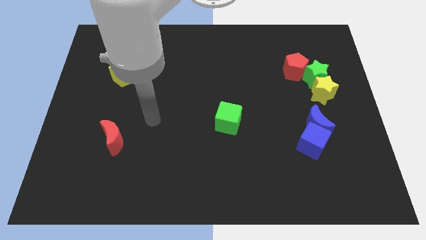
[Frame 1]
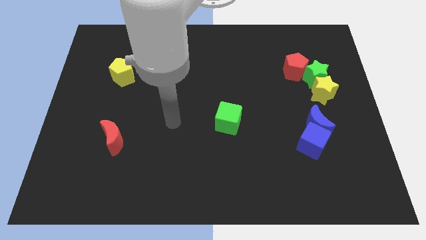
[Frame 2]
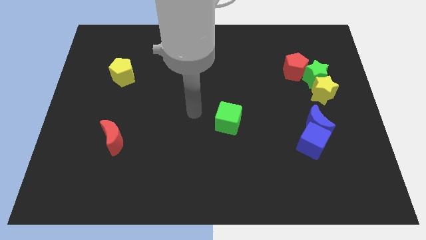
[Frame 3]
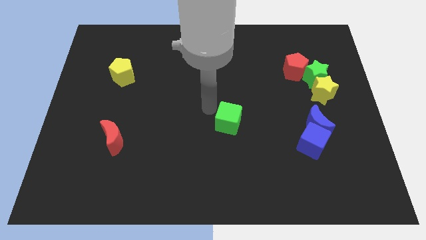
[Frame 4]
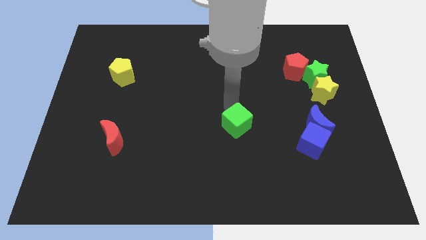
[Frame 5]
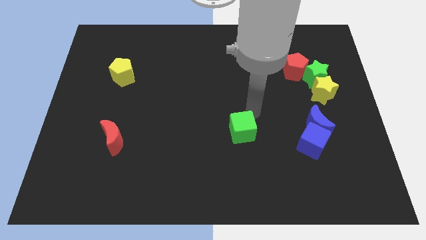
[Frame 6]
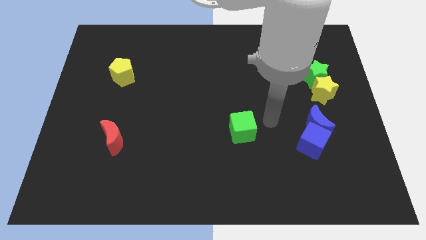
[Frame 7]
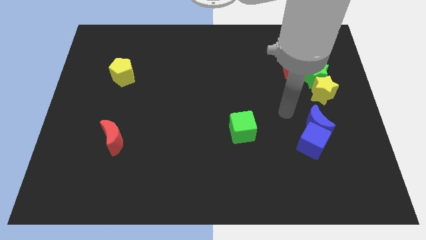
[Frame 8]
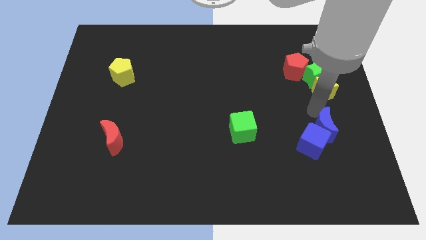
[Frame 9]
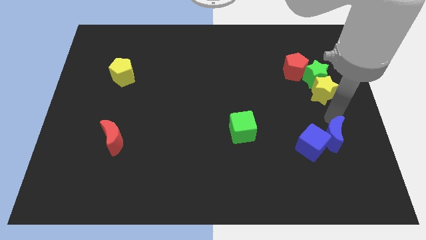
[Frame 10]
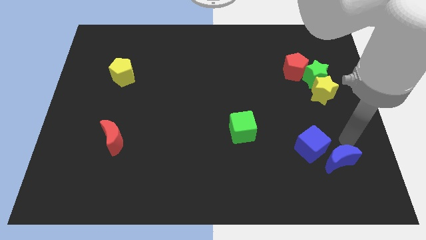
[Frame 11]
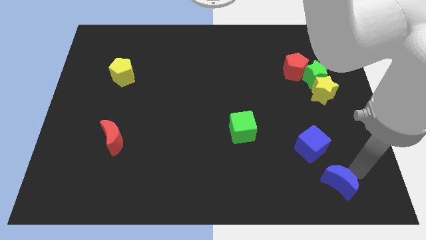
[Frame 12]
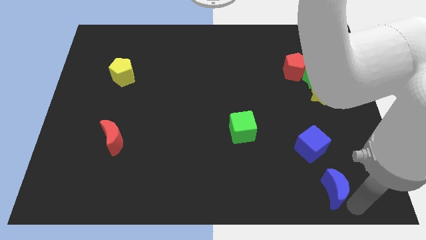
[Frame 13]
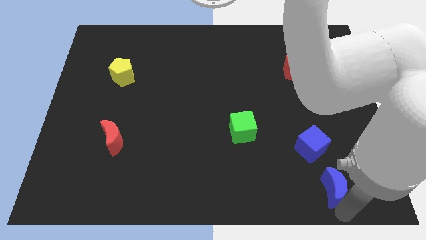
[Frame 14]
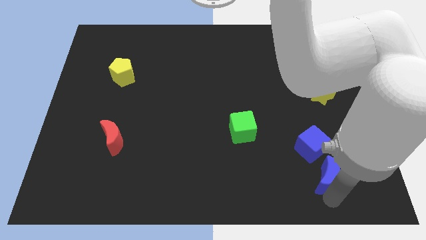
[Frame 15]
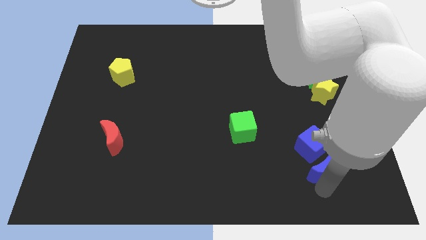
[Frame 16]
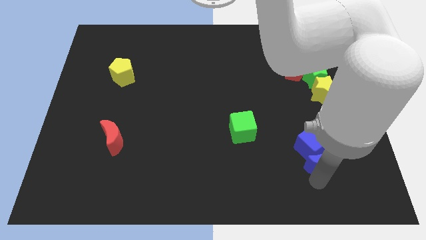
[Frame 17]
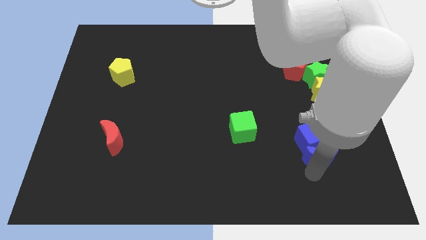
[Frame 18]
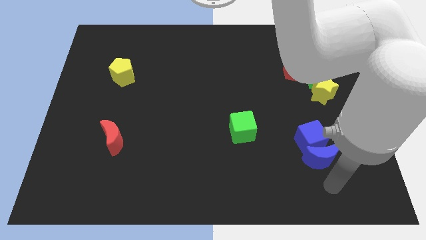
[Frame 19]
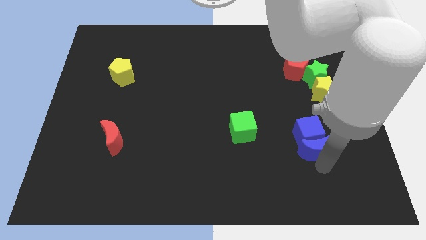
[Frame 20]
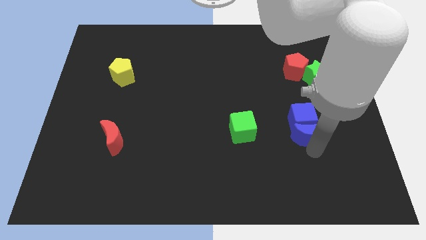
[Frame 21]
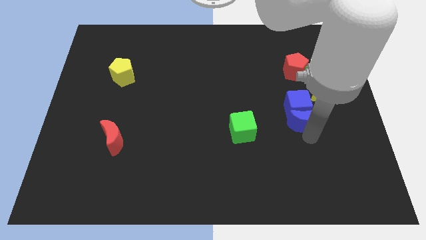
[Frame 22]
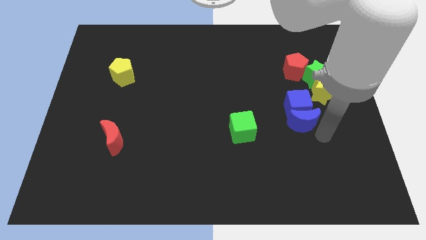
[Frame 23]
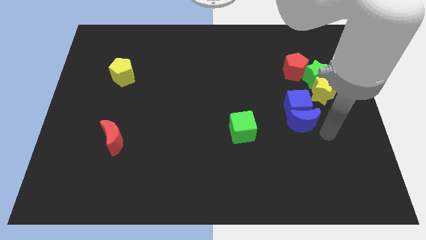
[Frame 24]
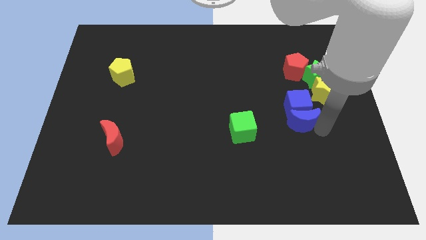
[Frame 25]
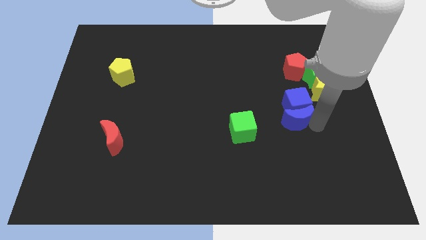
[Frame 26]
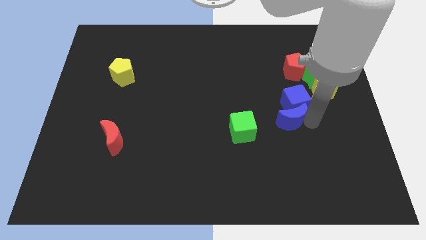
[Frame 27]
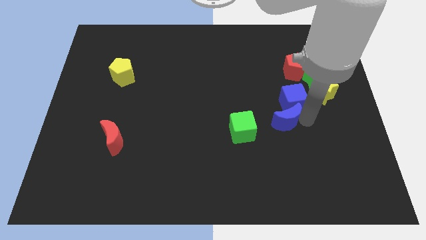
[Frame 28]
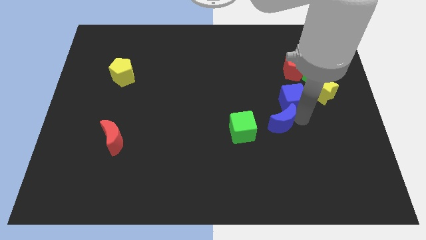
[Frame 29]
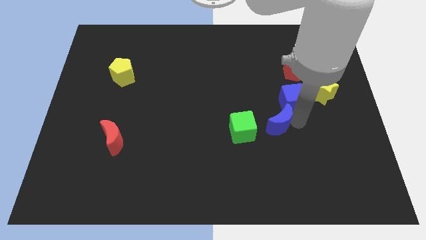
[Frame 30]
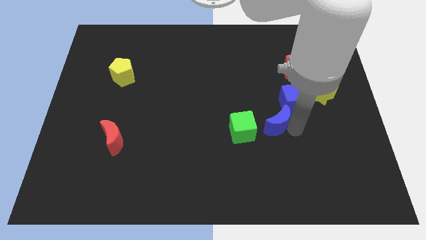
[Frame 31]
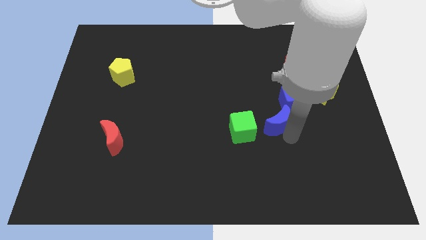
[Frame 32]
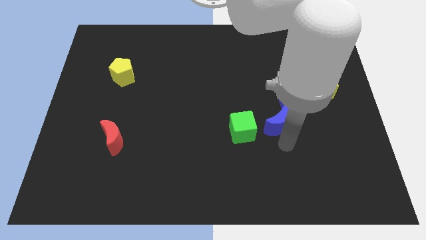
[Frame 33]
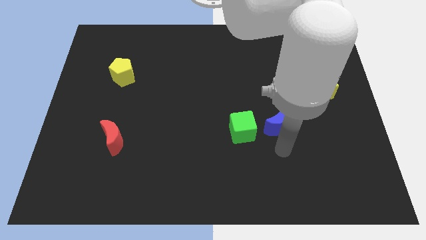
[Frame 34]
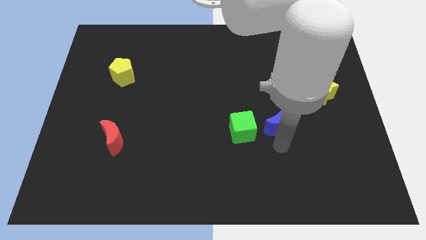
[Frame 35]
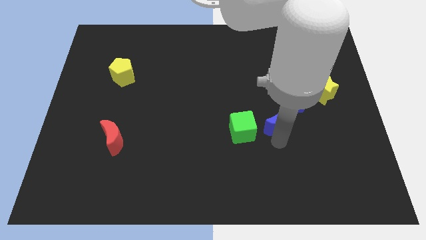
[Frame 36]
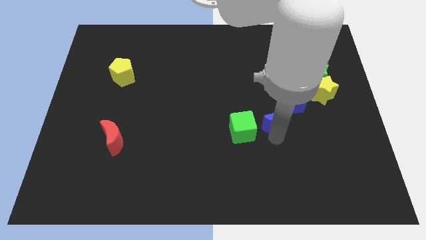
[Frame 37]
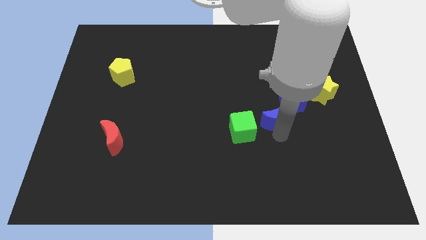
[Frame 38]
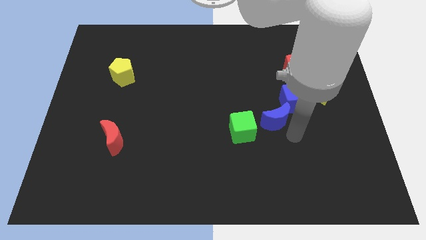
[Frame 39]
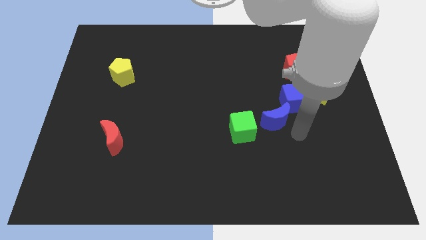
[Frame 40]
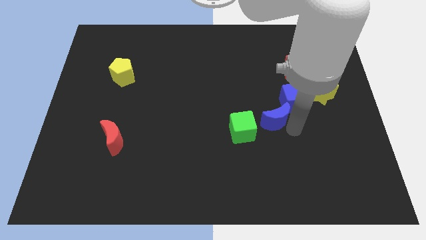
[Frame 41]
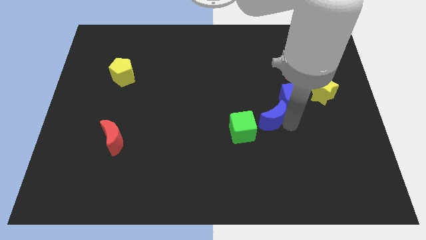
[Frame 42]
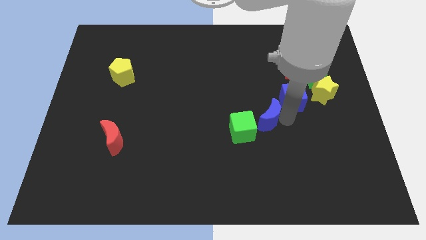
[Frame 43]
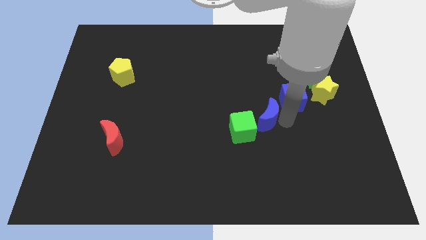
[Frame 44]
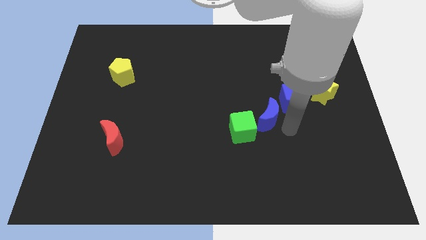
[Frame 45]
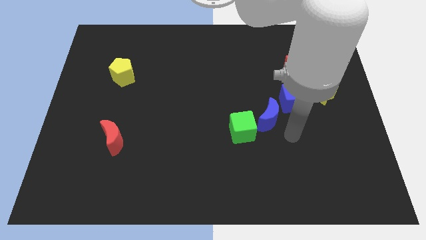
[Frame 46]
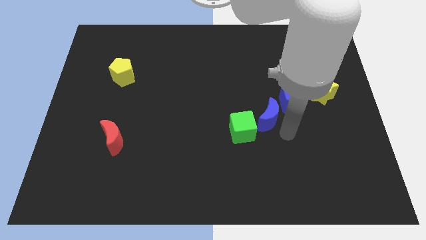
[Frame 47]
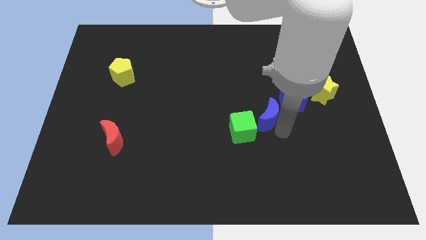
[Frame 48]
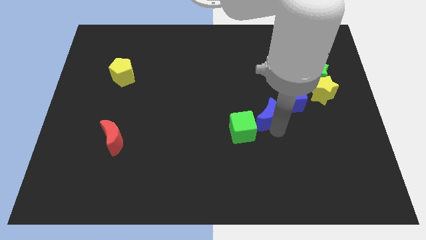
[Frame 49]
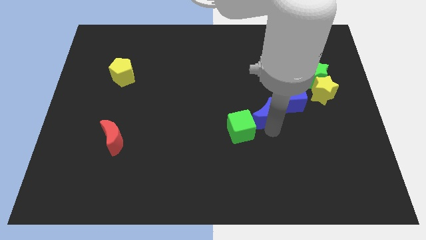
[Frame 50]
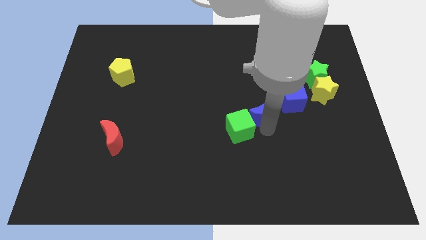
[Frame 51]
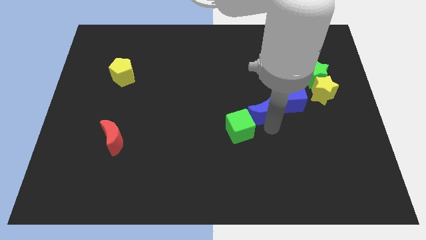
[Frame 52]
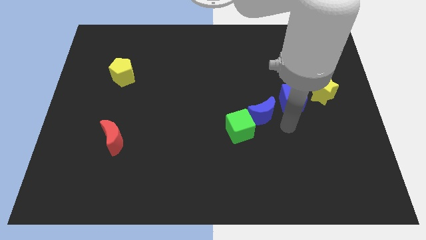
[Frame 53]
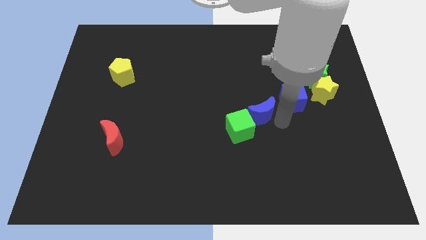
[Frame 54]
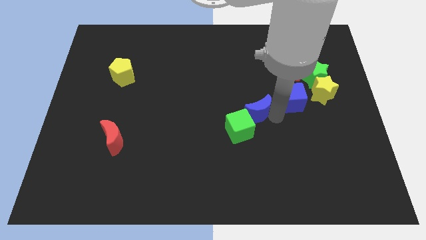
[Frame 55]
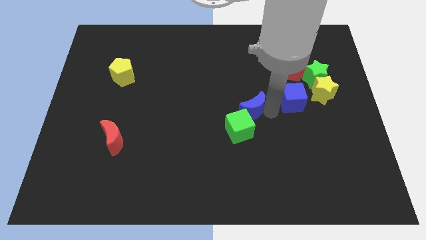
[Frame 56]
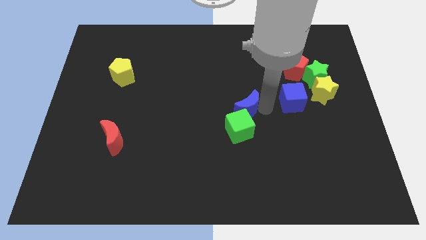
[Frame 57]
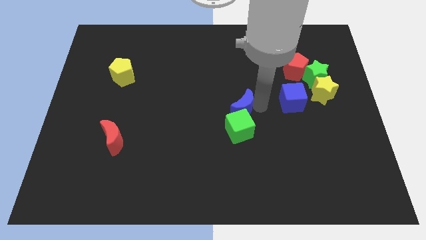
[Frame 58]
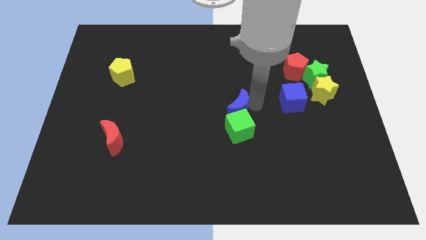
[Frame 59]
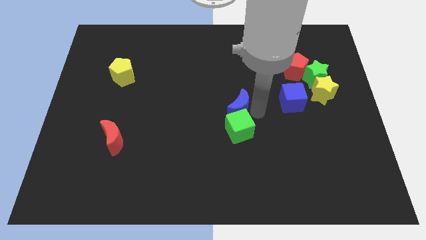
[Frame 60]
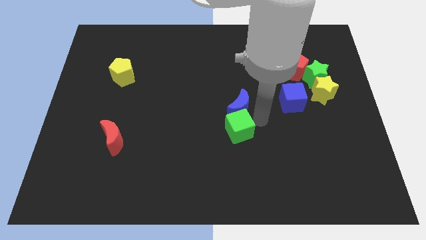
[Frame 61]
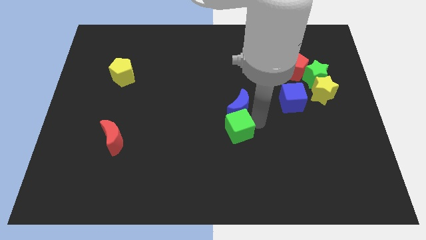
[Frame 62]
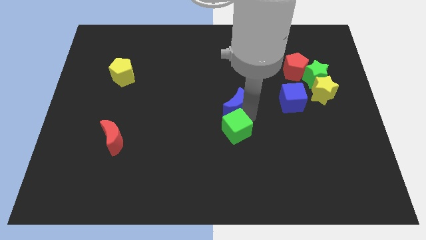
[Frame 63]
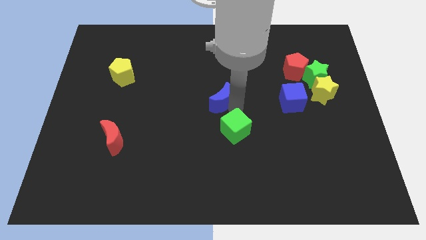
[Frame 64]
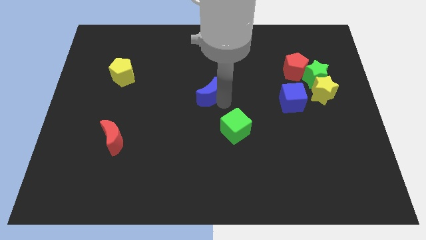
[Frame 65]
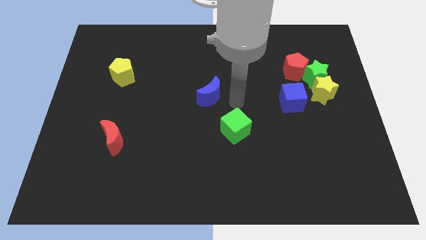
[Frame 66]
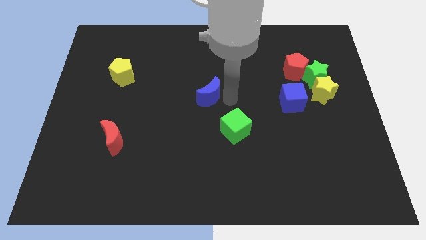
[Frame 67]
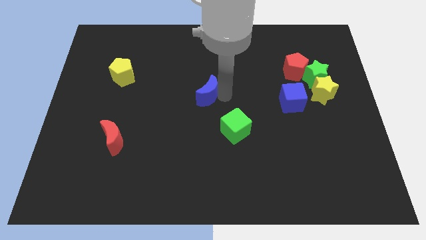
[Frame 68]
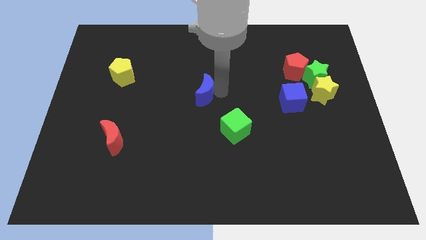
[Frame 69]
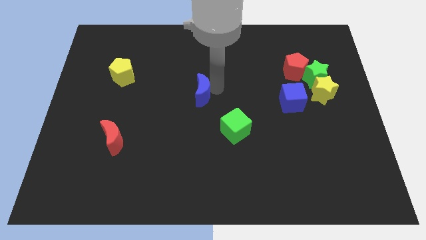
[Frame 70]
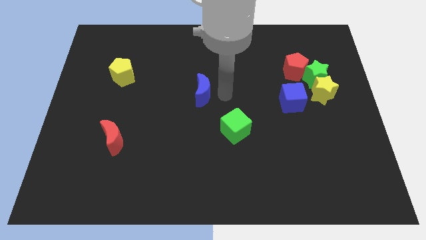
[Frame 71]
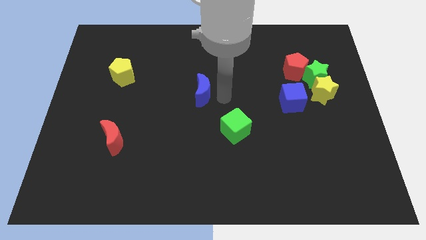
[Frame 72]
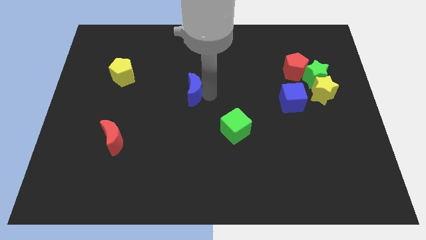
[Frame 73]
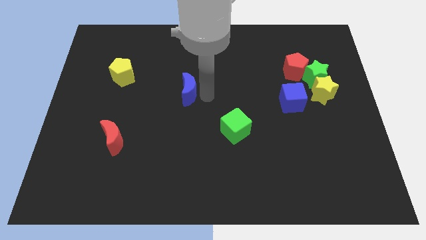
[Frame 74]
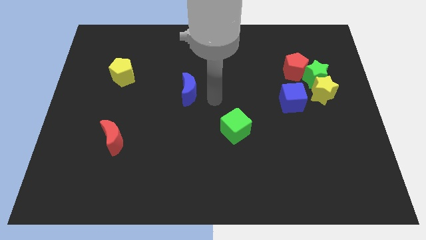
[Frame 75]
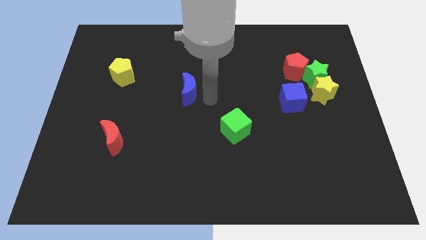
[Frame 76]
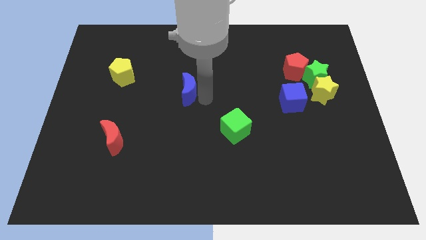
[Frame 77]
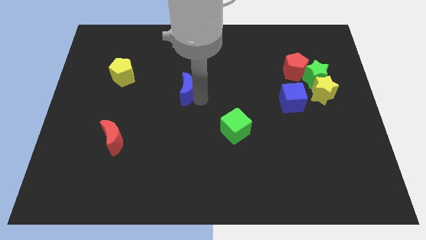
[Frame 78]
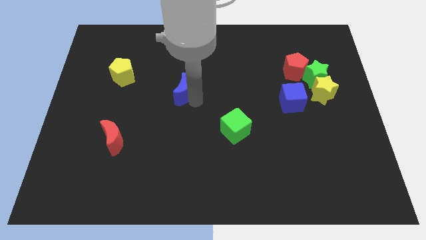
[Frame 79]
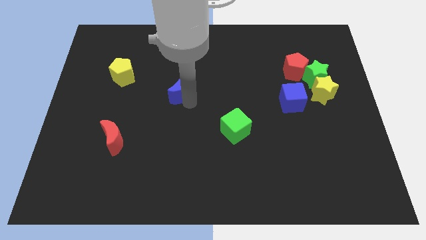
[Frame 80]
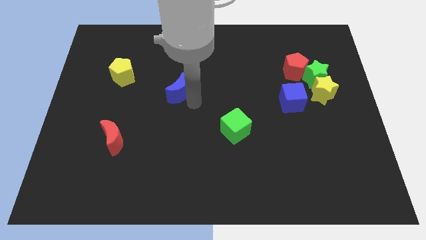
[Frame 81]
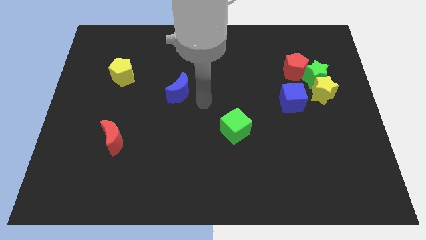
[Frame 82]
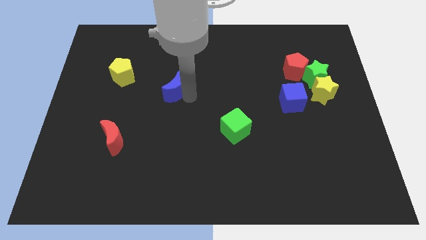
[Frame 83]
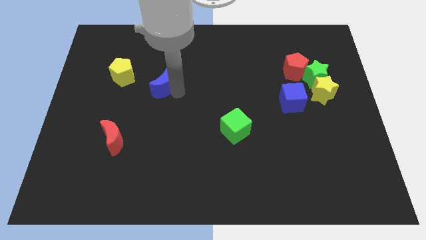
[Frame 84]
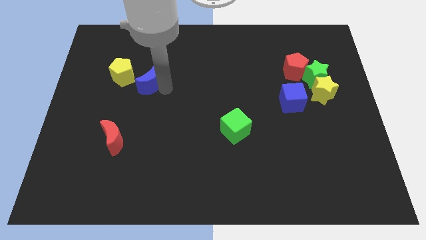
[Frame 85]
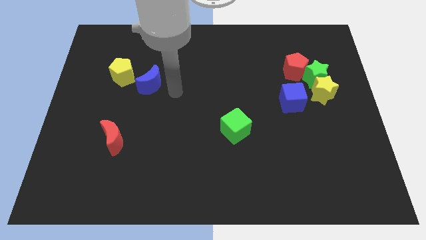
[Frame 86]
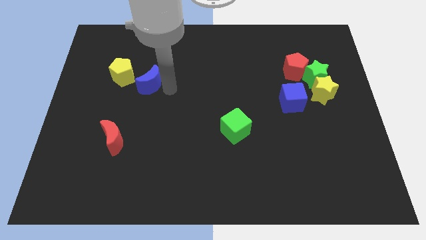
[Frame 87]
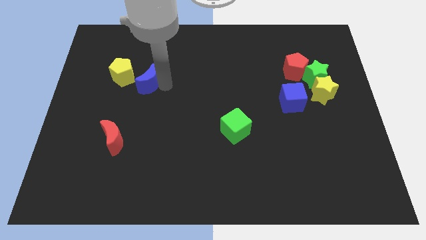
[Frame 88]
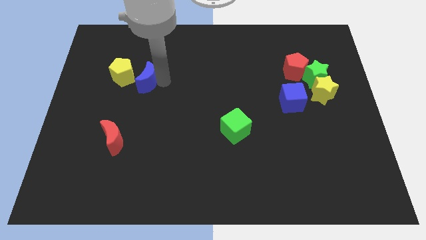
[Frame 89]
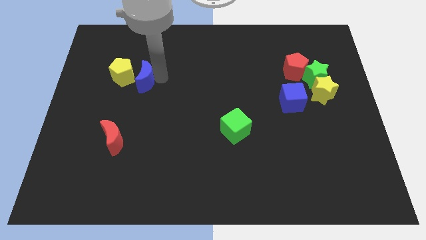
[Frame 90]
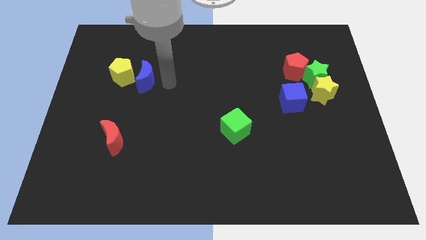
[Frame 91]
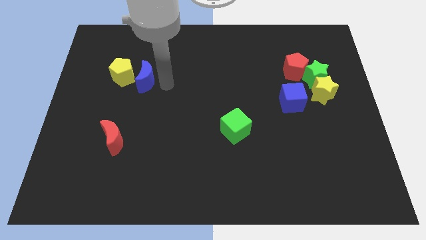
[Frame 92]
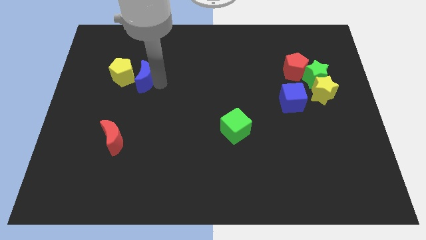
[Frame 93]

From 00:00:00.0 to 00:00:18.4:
move the blue moon next to the yellow pentagon
